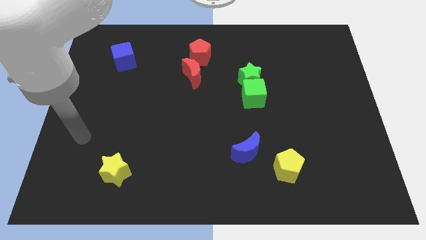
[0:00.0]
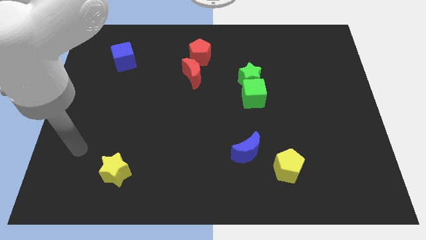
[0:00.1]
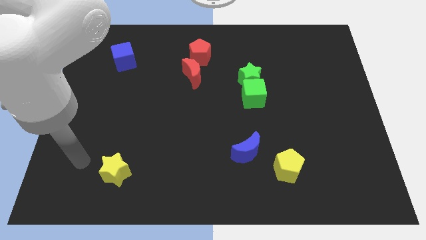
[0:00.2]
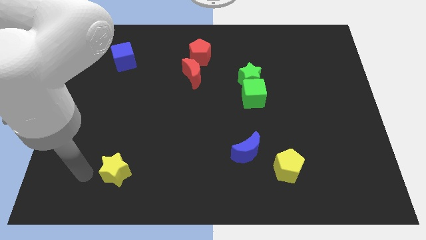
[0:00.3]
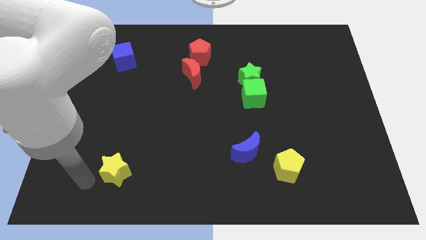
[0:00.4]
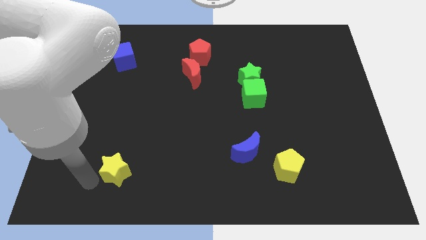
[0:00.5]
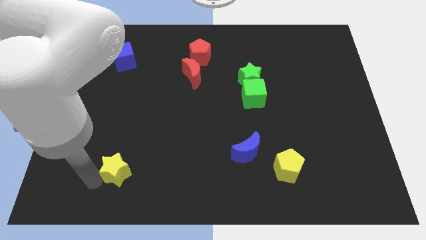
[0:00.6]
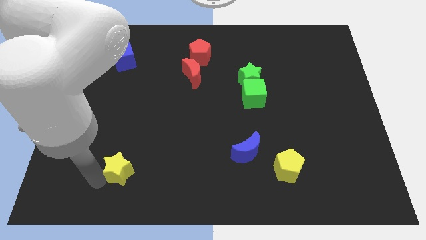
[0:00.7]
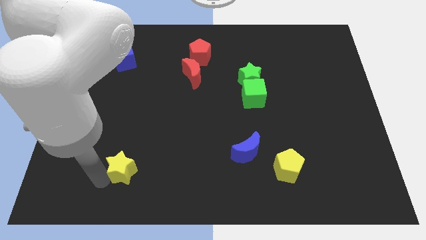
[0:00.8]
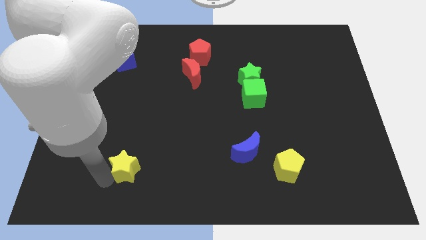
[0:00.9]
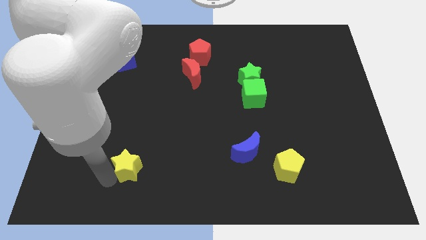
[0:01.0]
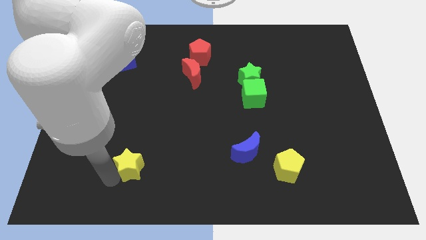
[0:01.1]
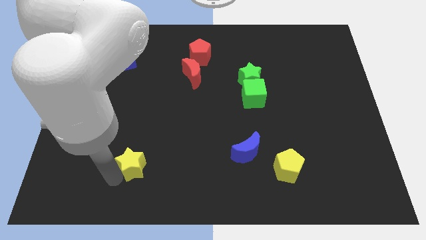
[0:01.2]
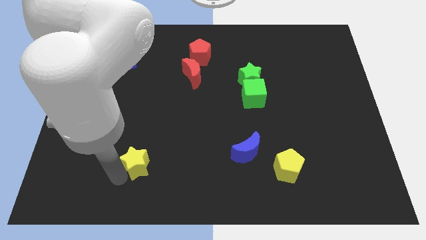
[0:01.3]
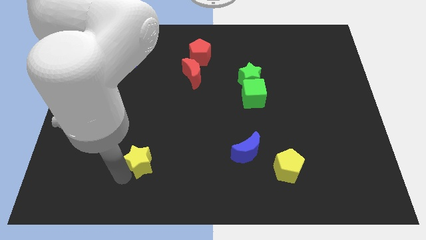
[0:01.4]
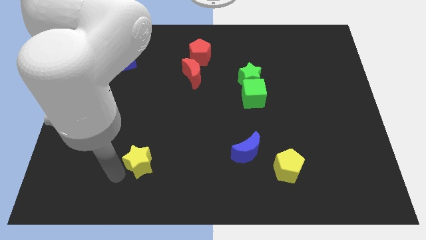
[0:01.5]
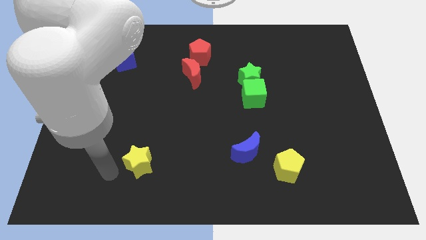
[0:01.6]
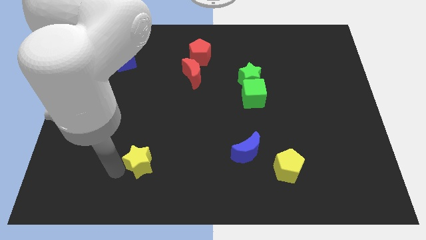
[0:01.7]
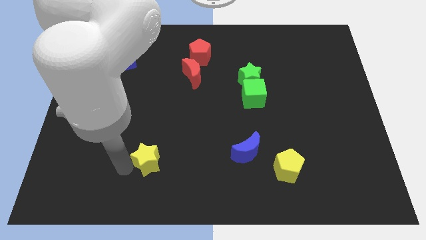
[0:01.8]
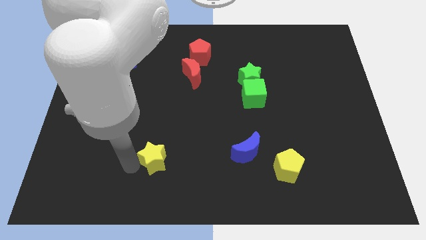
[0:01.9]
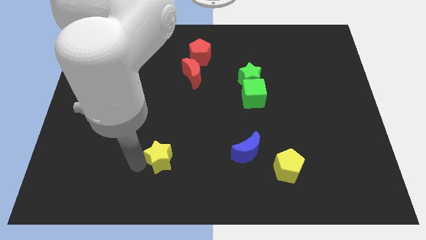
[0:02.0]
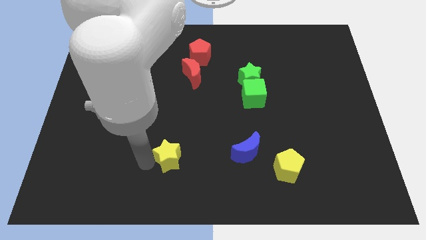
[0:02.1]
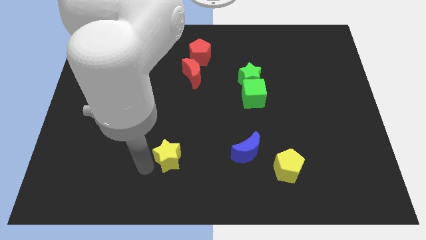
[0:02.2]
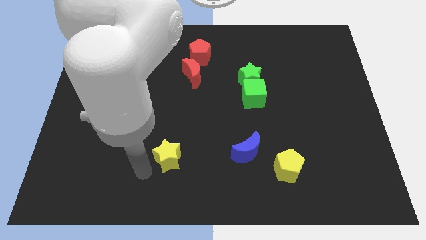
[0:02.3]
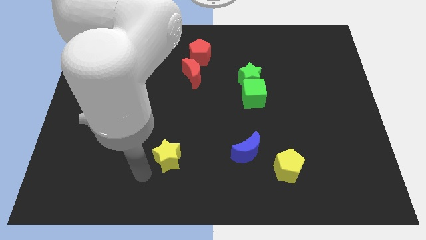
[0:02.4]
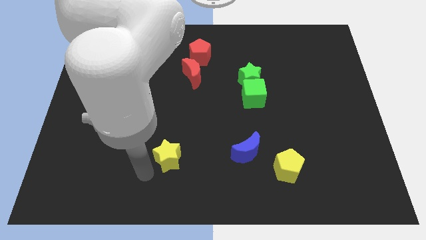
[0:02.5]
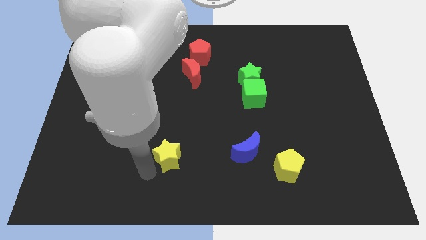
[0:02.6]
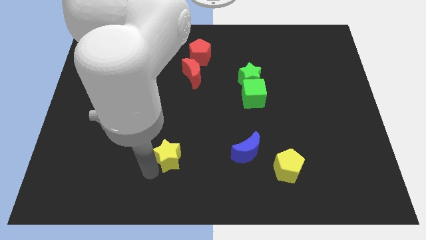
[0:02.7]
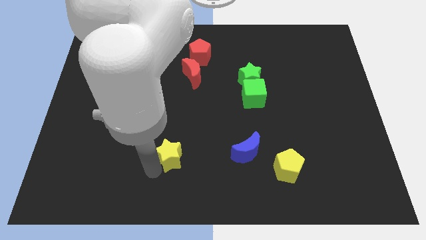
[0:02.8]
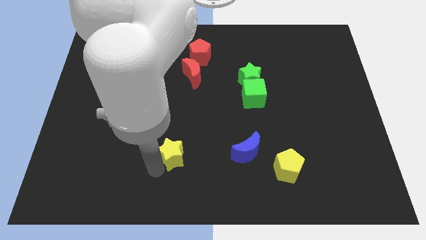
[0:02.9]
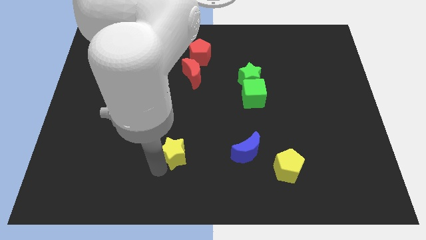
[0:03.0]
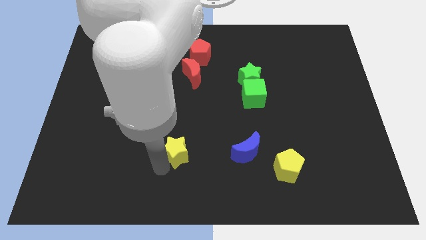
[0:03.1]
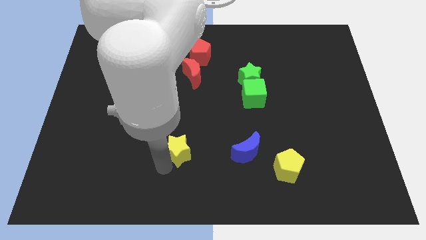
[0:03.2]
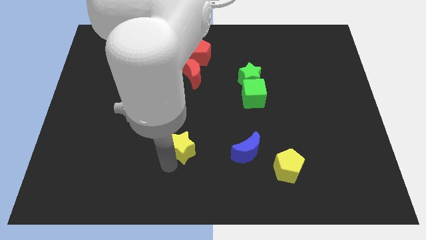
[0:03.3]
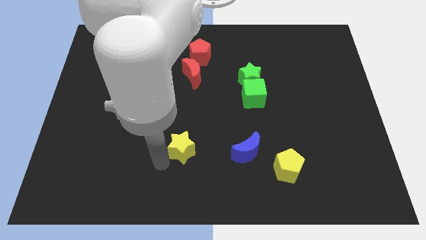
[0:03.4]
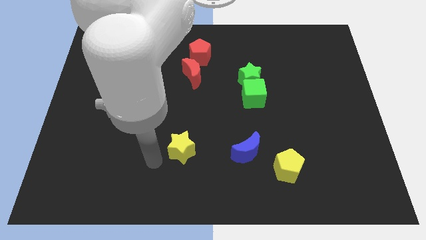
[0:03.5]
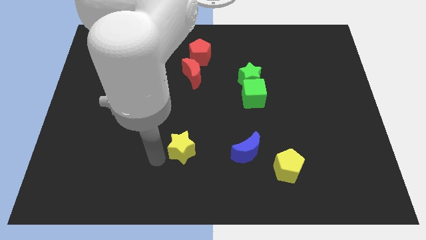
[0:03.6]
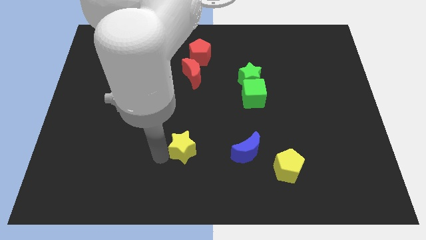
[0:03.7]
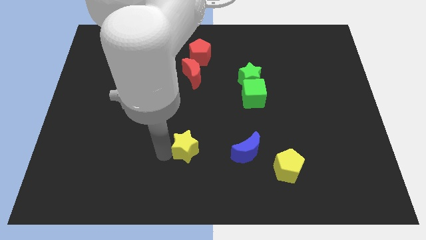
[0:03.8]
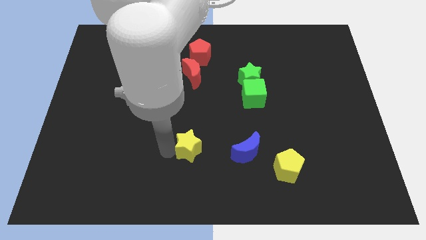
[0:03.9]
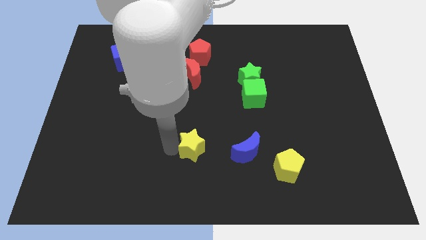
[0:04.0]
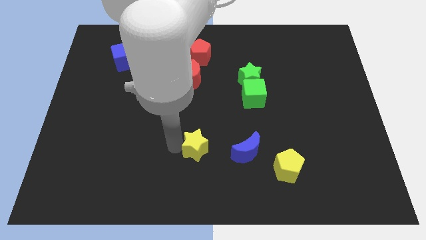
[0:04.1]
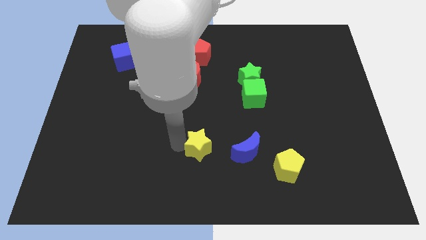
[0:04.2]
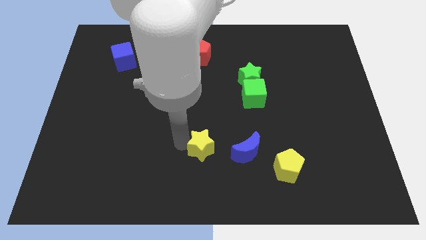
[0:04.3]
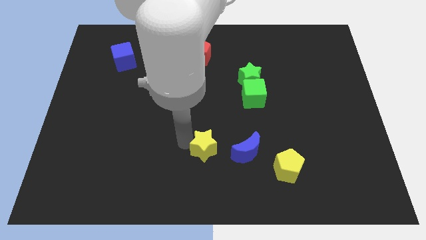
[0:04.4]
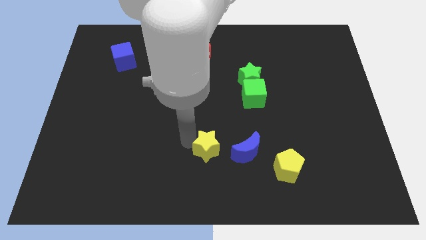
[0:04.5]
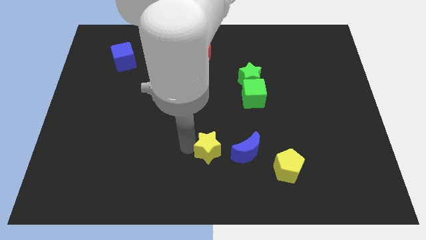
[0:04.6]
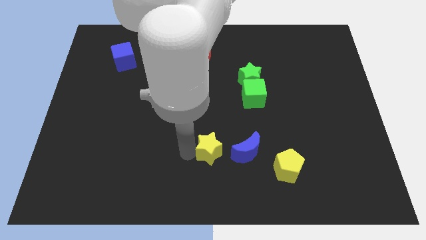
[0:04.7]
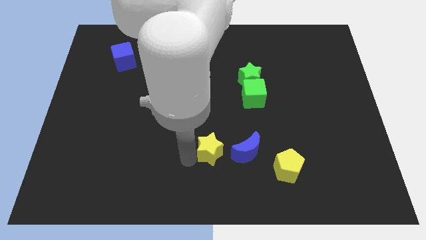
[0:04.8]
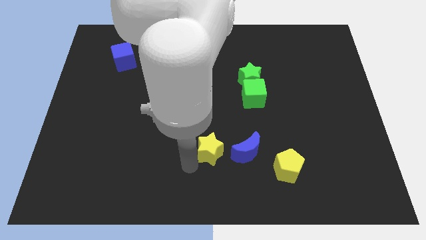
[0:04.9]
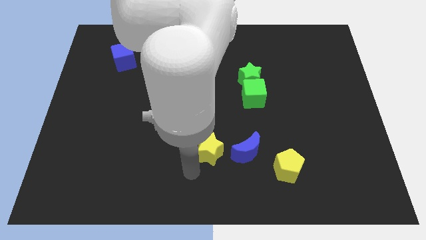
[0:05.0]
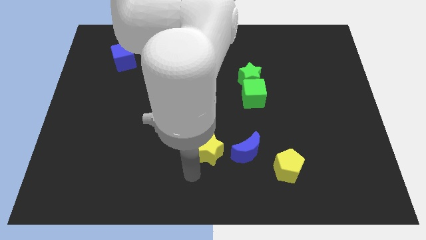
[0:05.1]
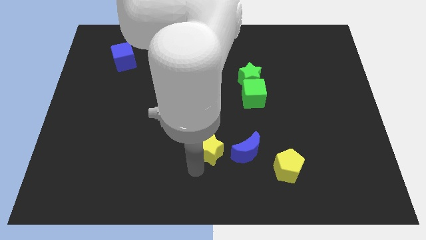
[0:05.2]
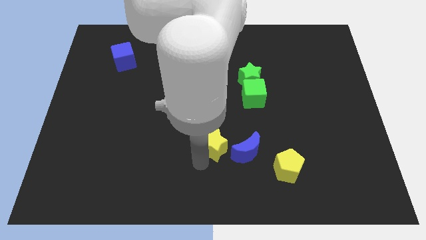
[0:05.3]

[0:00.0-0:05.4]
move the yellow star to the top left side of the blue moon

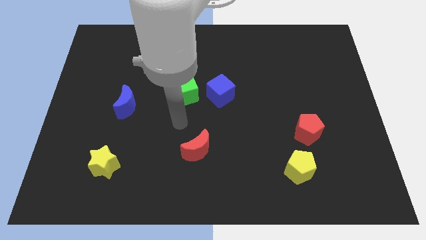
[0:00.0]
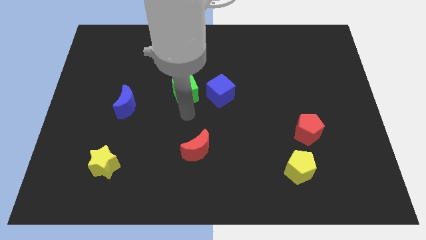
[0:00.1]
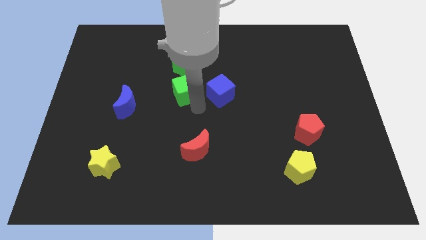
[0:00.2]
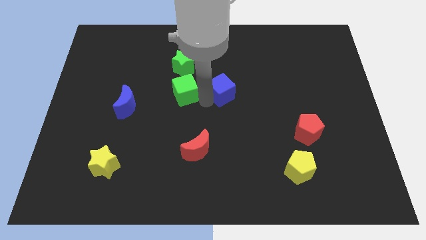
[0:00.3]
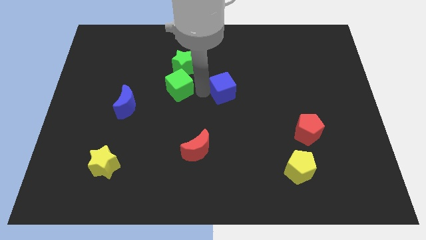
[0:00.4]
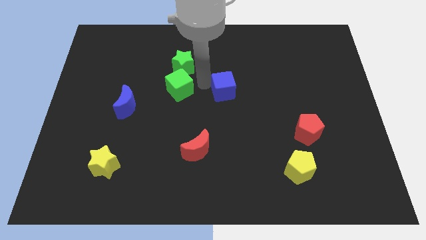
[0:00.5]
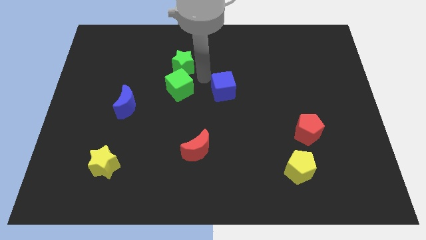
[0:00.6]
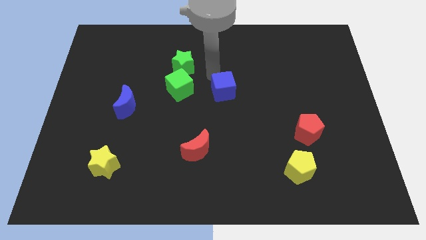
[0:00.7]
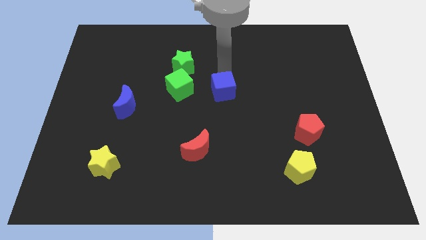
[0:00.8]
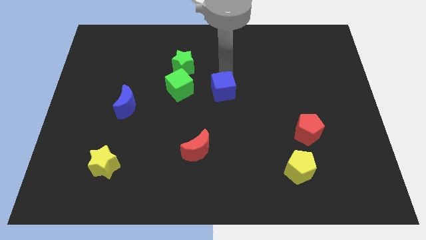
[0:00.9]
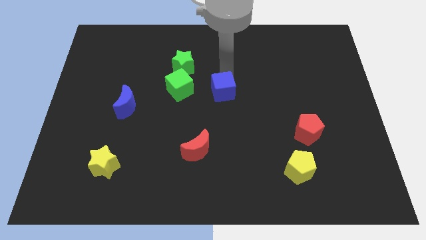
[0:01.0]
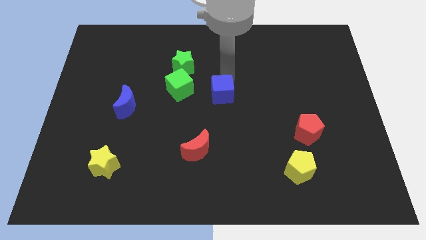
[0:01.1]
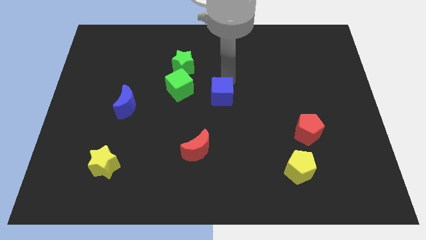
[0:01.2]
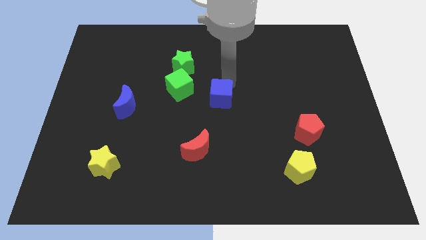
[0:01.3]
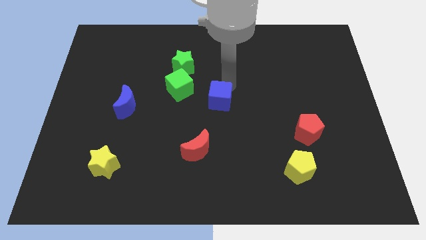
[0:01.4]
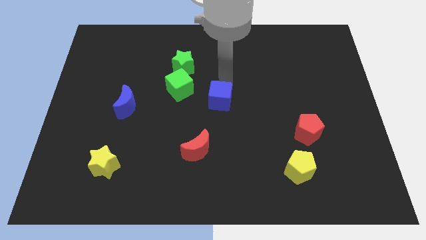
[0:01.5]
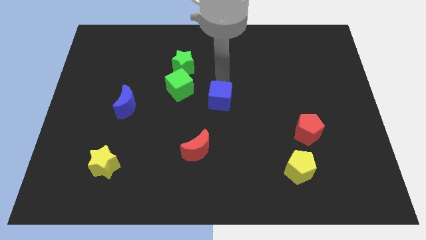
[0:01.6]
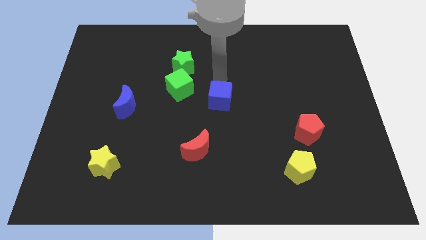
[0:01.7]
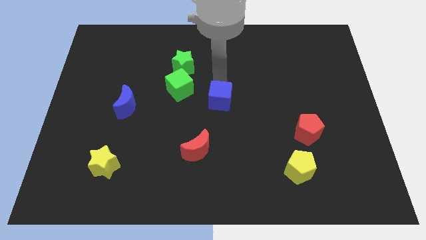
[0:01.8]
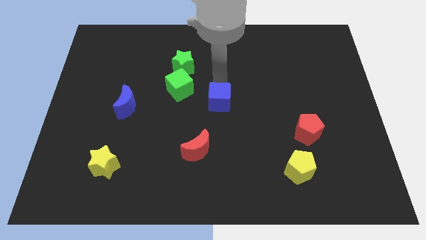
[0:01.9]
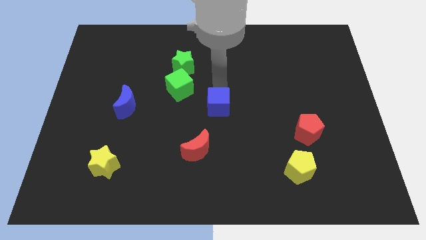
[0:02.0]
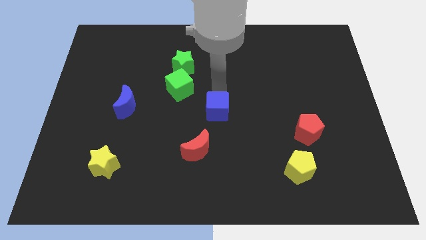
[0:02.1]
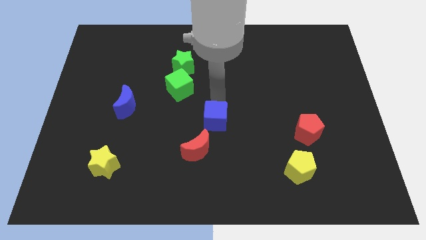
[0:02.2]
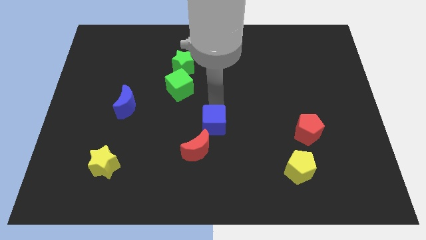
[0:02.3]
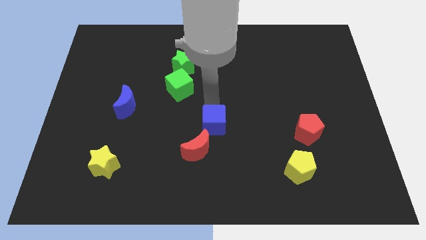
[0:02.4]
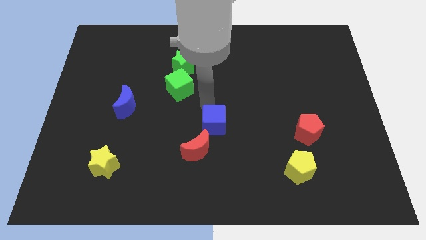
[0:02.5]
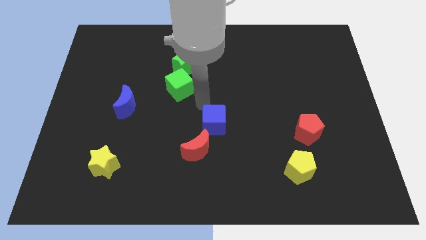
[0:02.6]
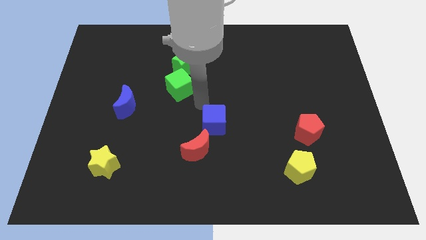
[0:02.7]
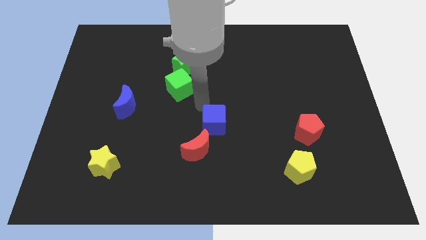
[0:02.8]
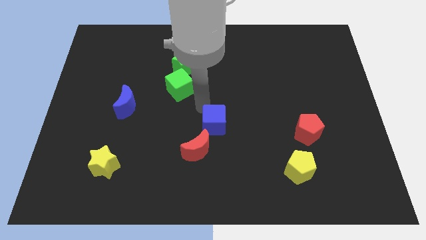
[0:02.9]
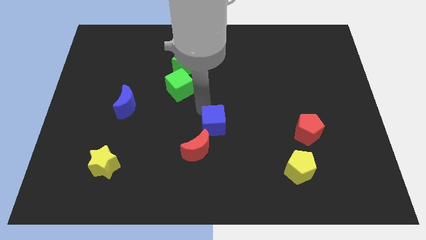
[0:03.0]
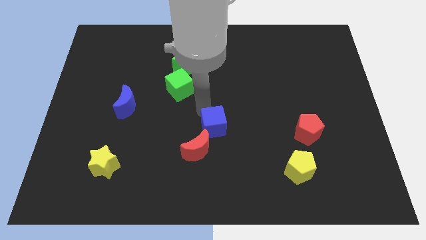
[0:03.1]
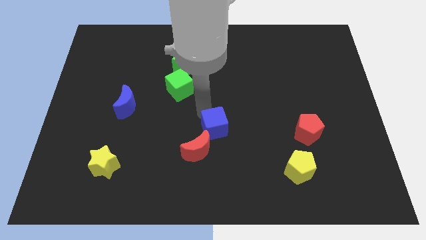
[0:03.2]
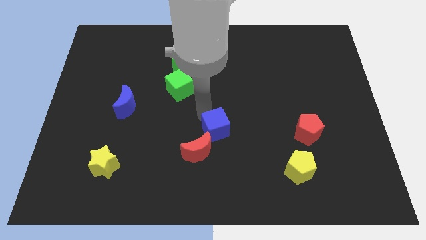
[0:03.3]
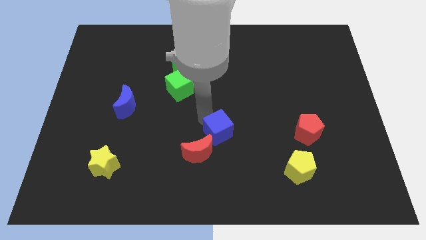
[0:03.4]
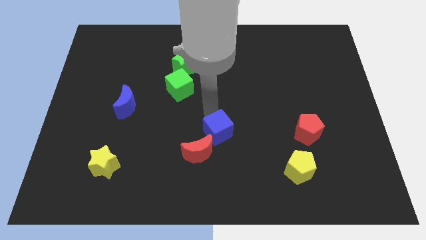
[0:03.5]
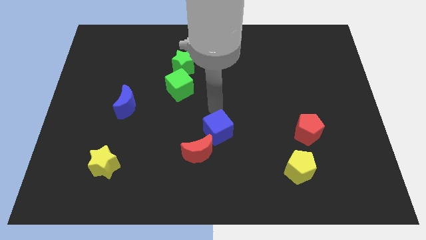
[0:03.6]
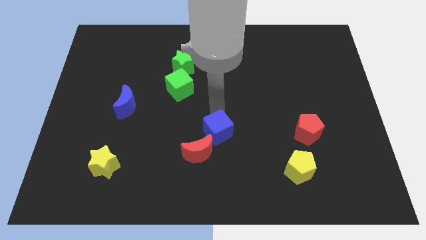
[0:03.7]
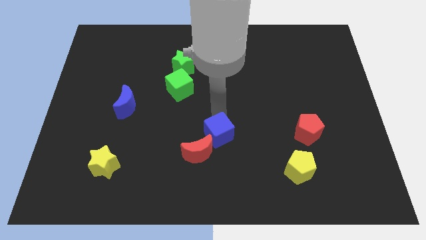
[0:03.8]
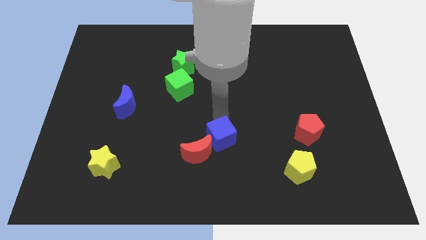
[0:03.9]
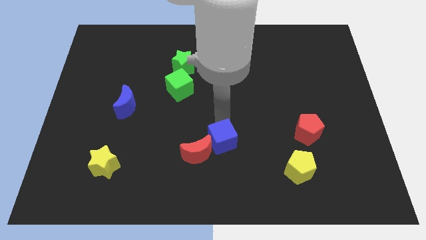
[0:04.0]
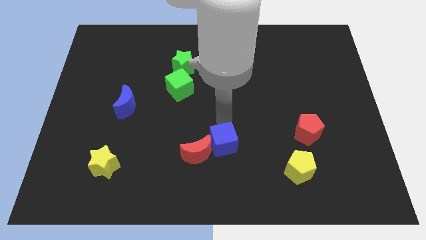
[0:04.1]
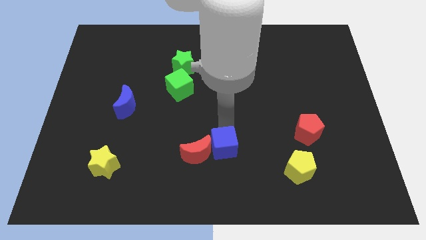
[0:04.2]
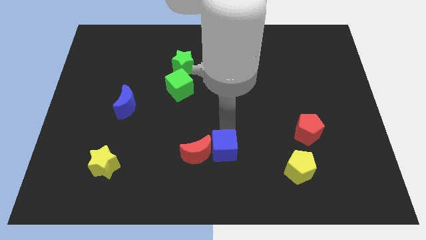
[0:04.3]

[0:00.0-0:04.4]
push the blue cube to the bottom right side of the red moon
